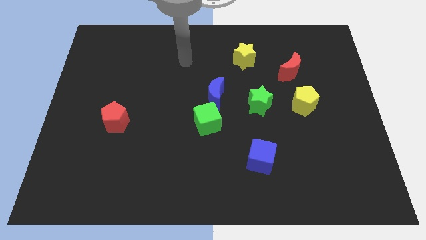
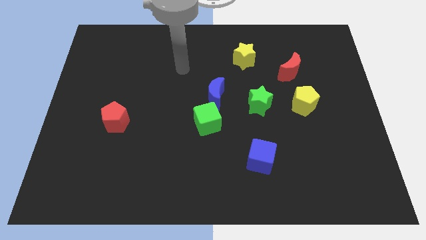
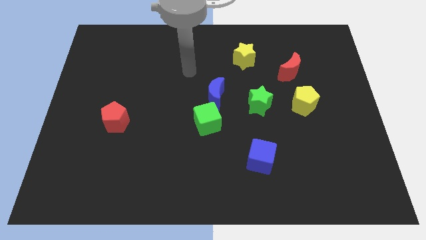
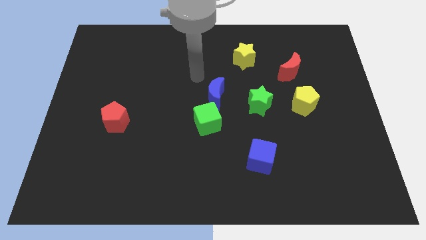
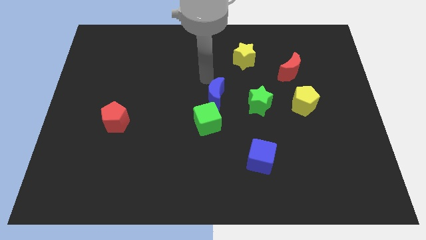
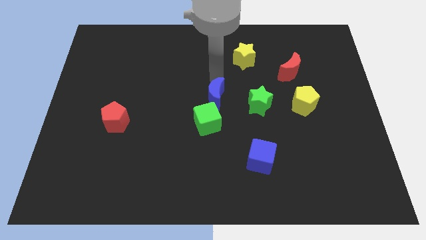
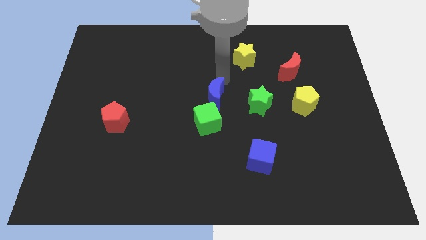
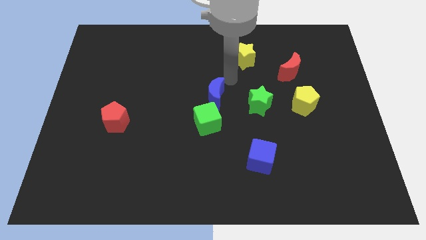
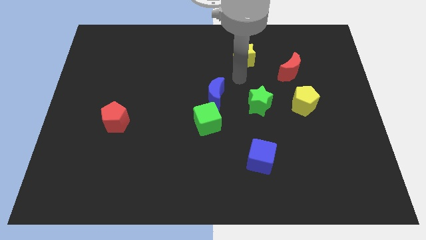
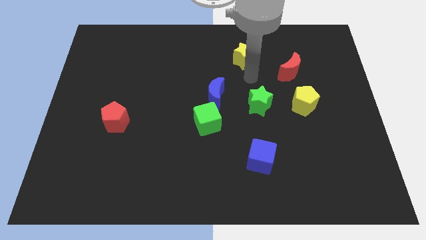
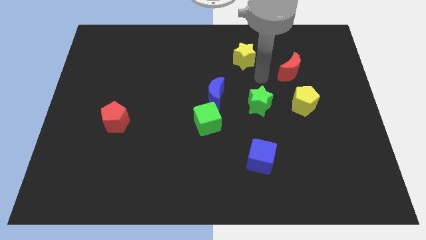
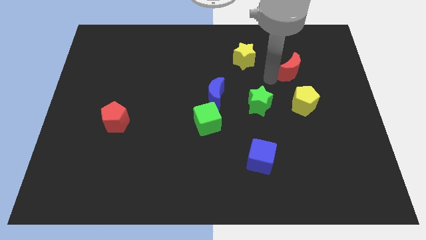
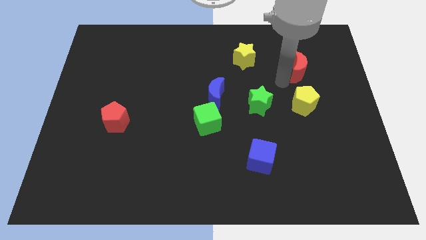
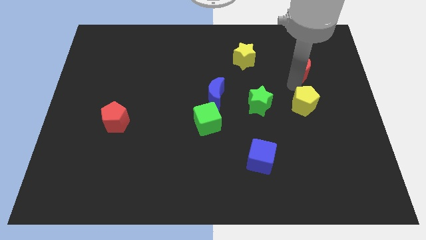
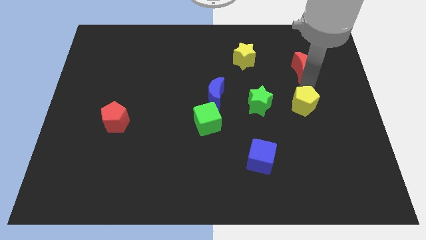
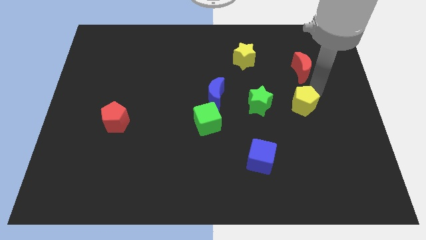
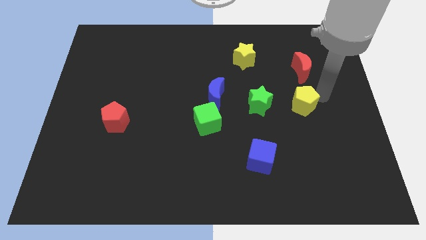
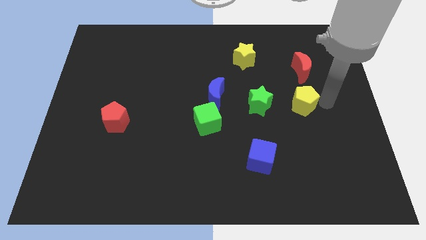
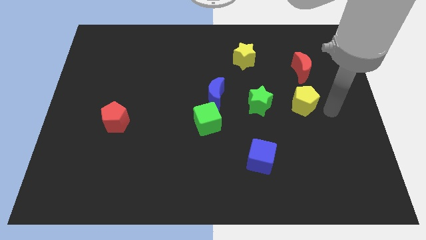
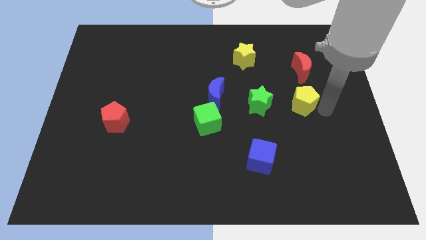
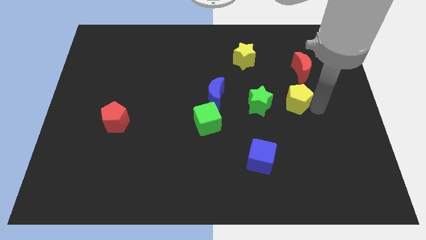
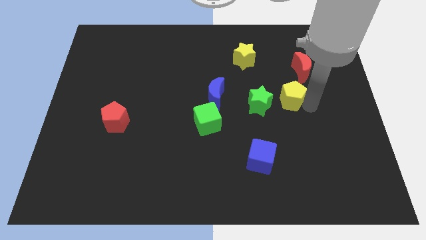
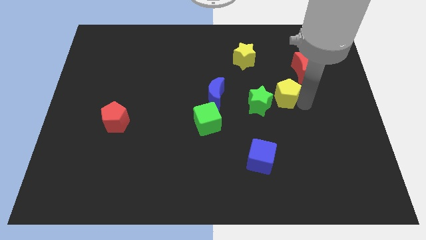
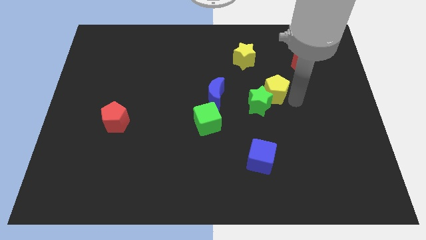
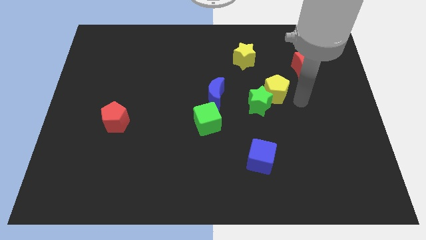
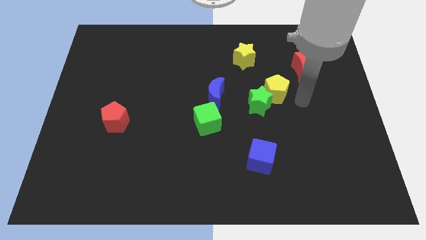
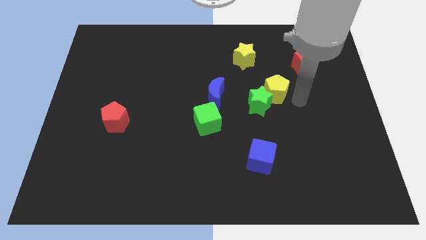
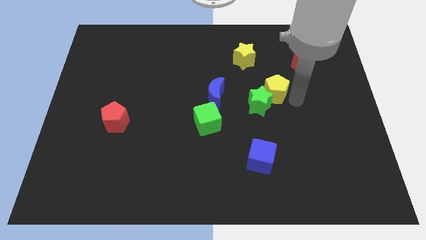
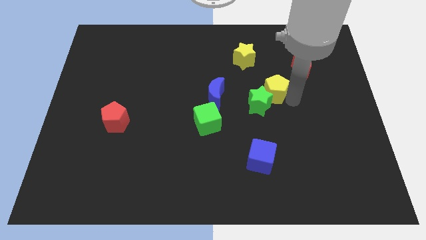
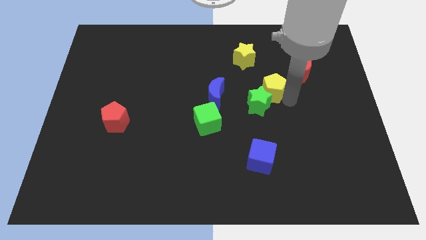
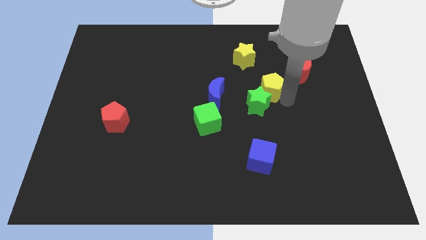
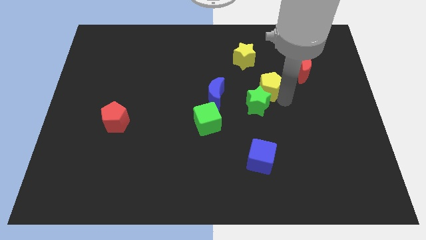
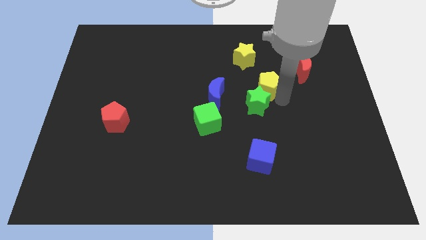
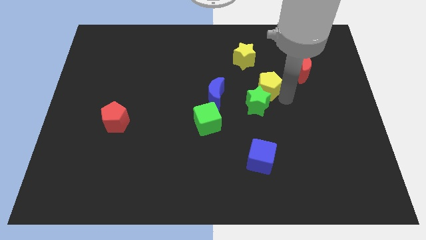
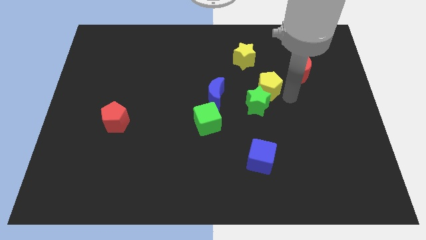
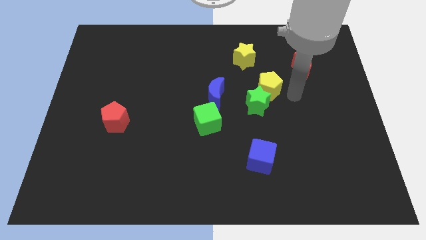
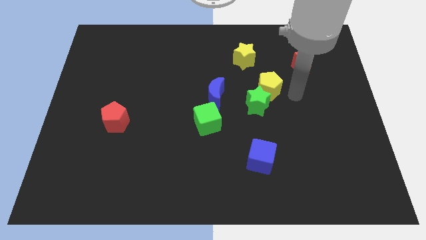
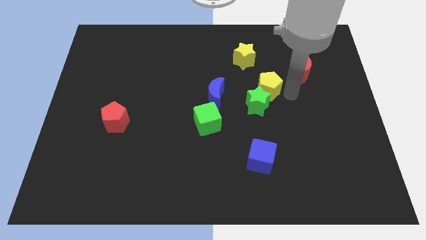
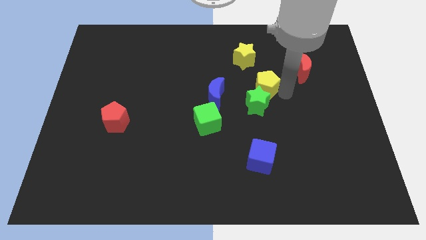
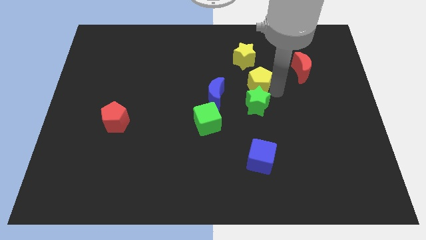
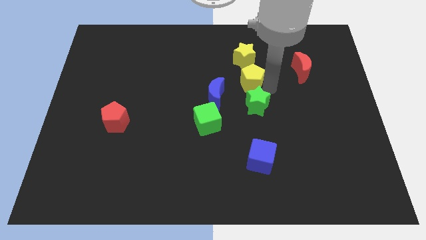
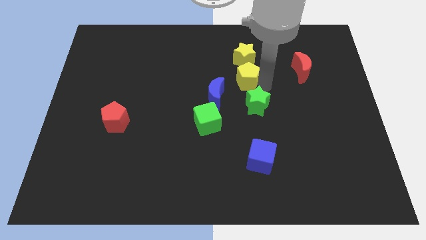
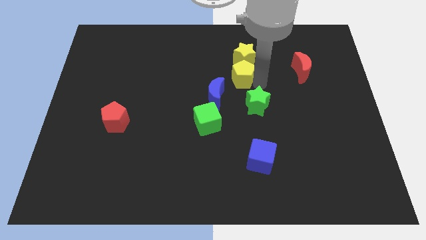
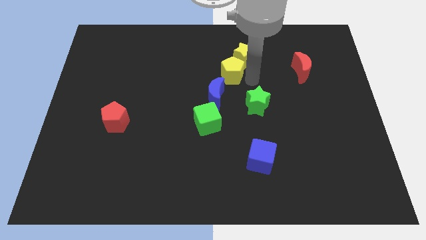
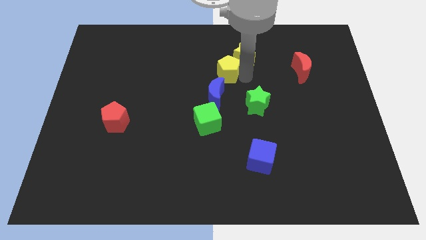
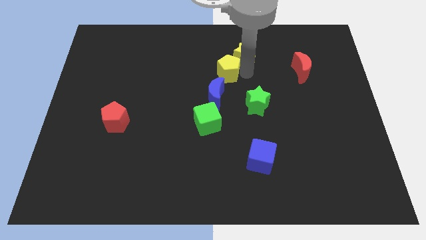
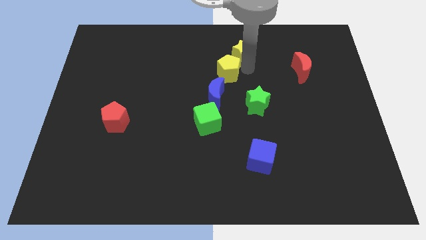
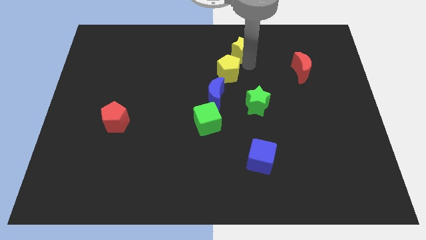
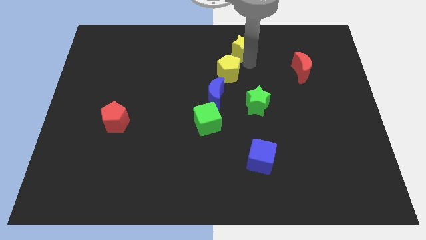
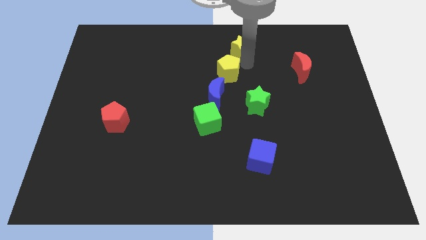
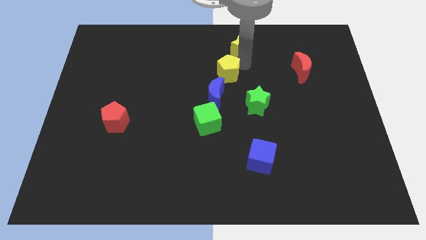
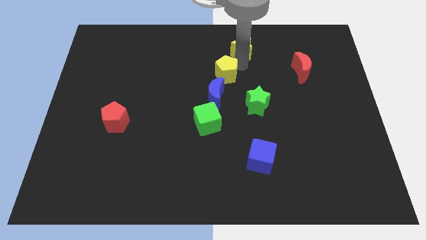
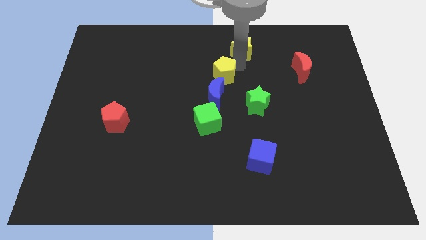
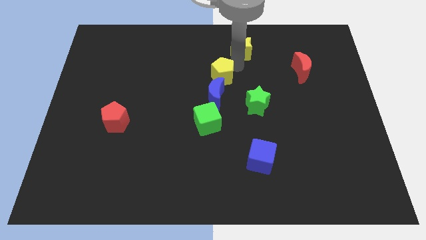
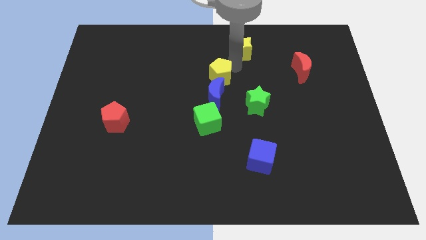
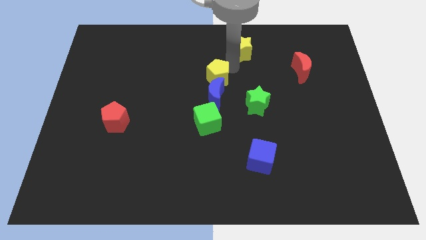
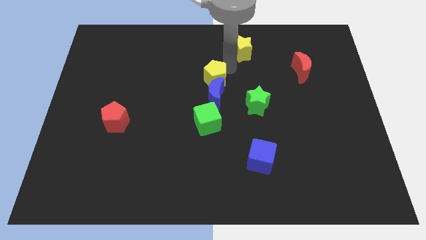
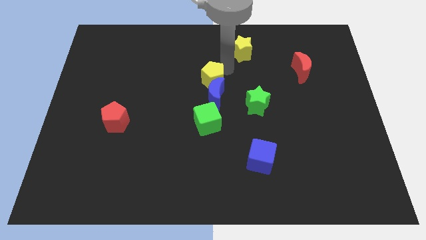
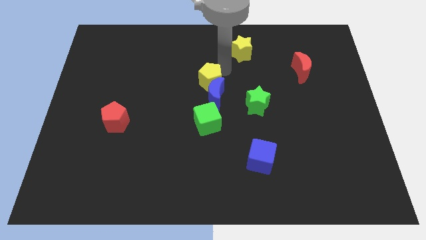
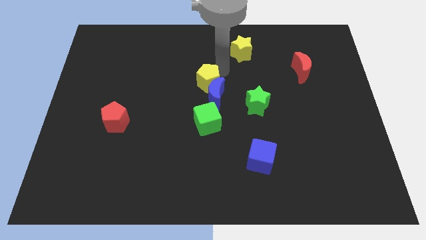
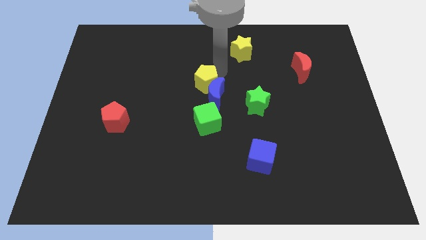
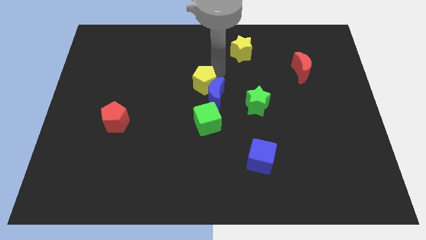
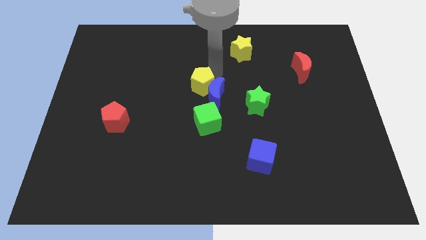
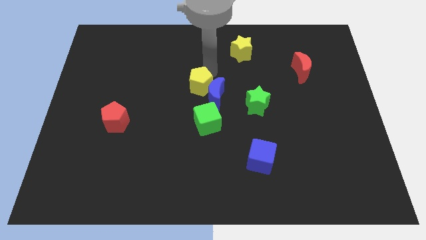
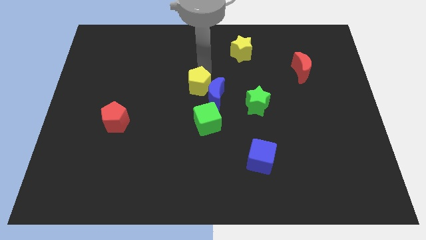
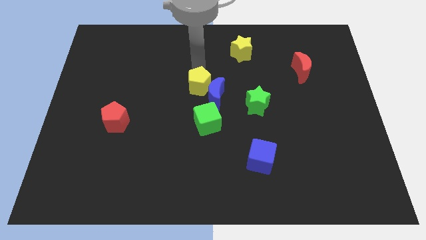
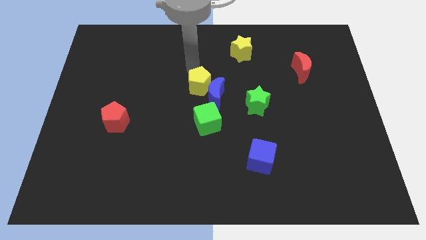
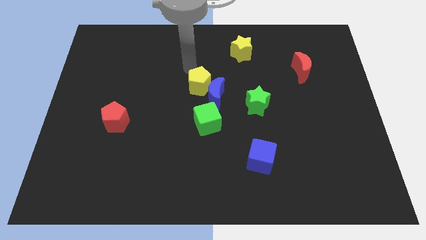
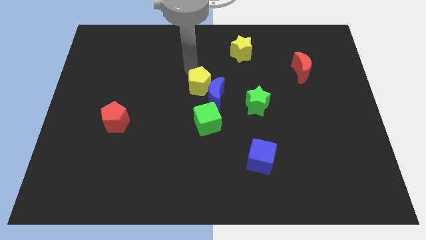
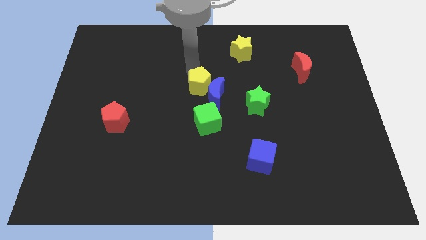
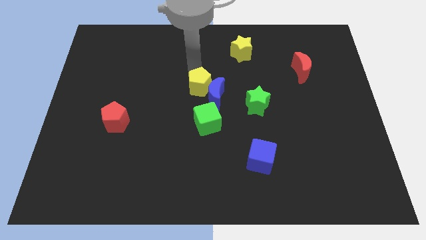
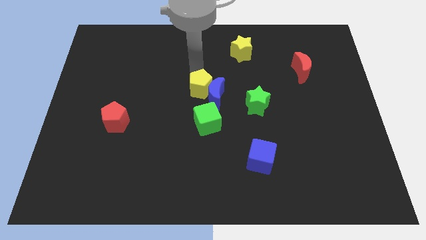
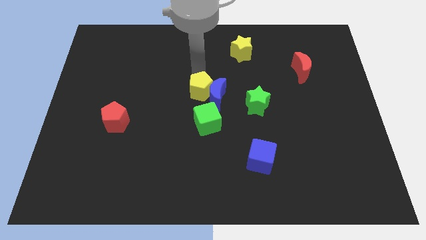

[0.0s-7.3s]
put the yellow pentagon to the left of the green star
